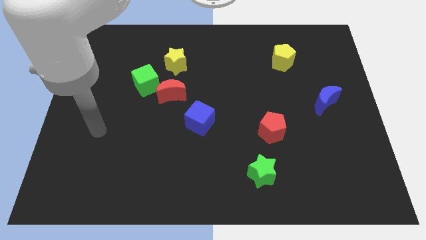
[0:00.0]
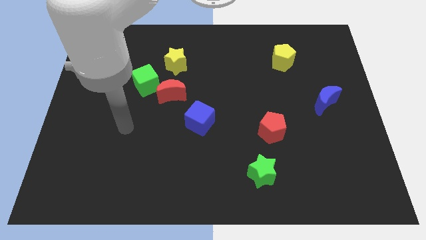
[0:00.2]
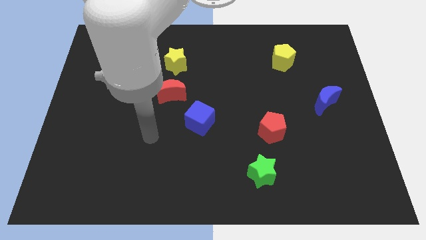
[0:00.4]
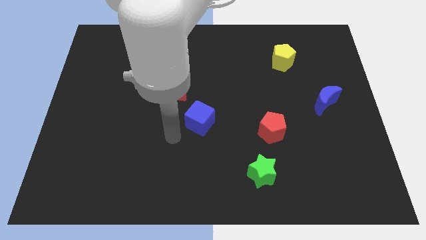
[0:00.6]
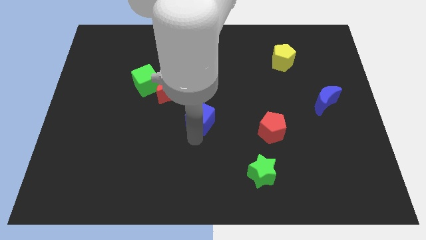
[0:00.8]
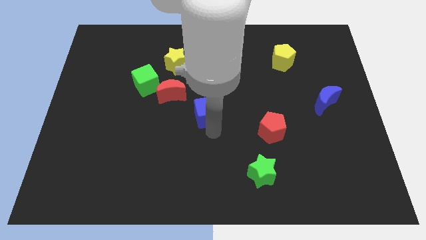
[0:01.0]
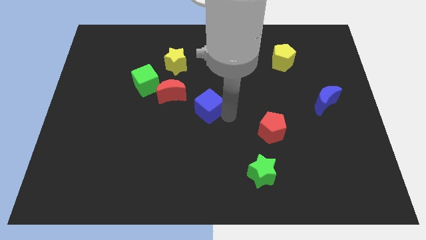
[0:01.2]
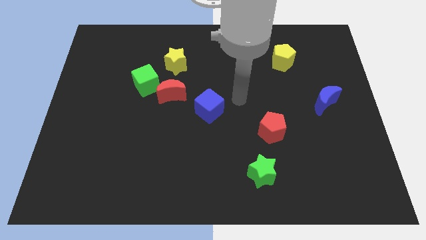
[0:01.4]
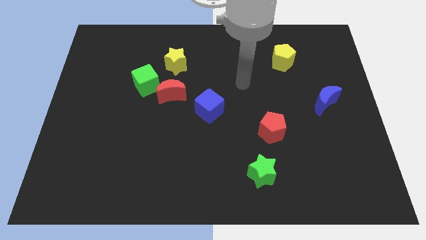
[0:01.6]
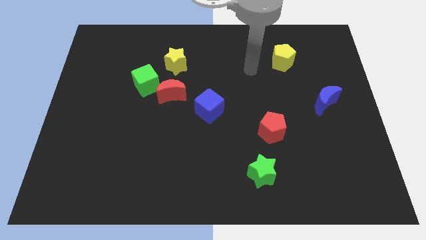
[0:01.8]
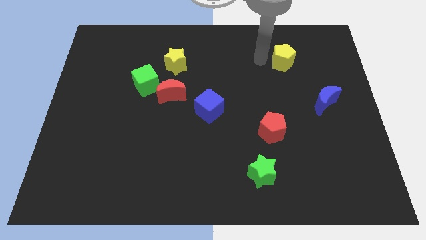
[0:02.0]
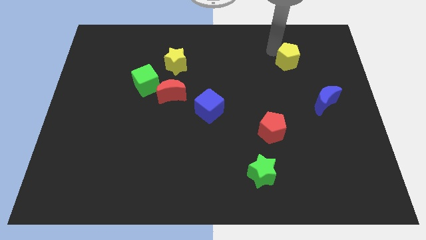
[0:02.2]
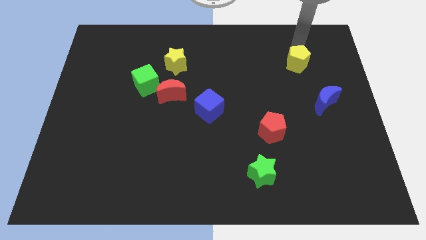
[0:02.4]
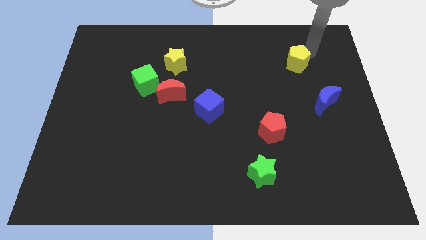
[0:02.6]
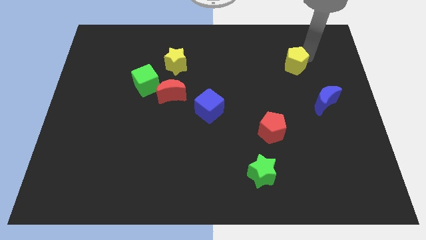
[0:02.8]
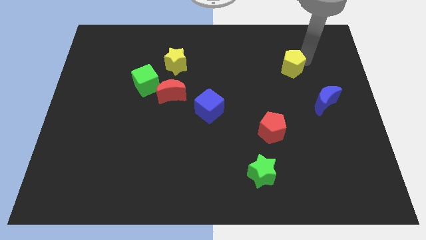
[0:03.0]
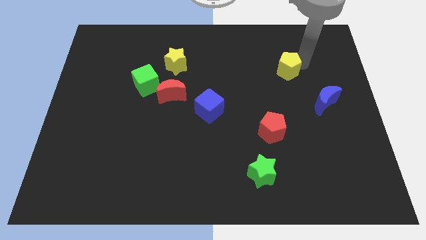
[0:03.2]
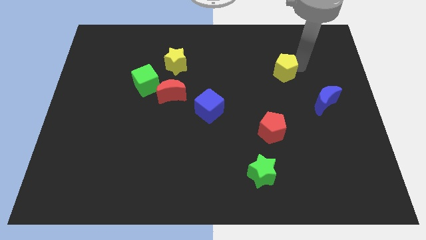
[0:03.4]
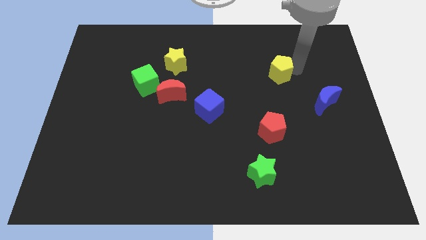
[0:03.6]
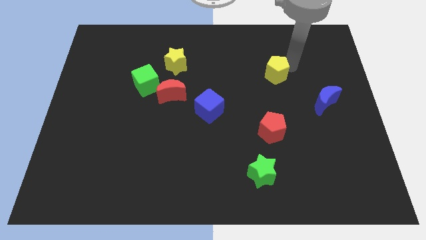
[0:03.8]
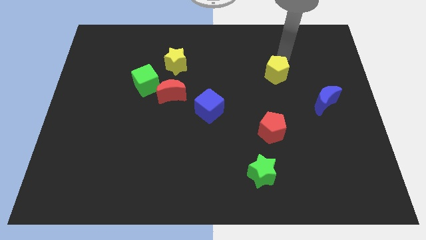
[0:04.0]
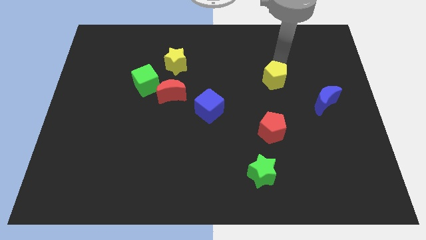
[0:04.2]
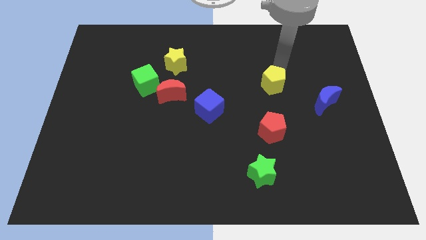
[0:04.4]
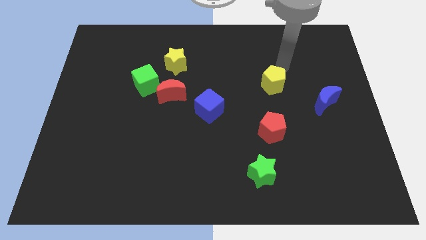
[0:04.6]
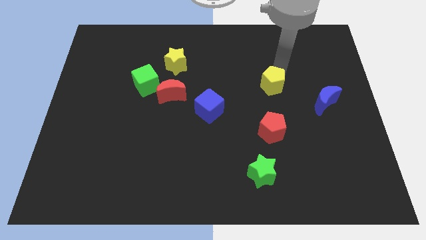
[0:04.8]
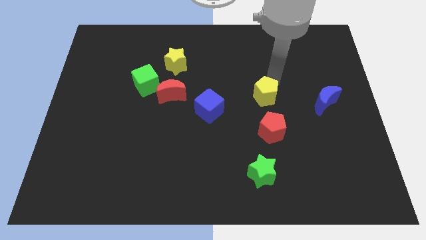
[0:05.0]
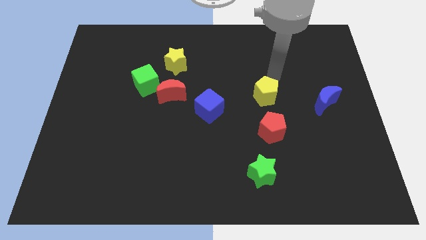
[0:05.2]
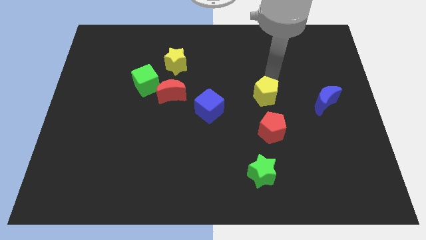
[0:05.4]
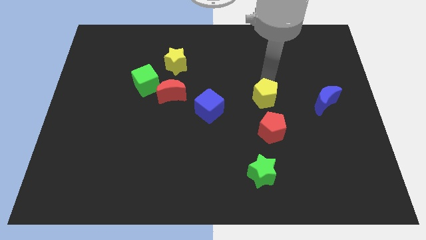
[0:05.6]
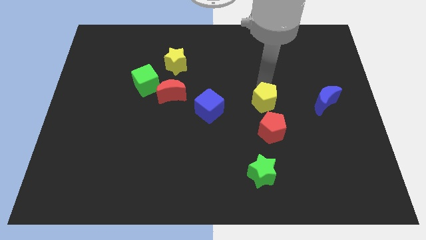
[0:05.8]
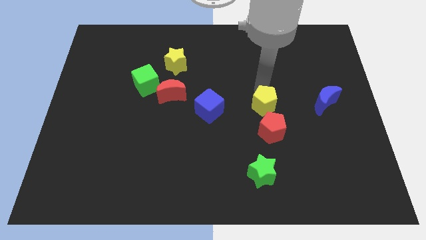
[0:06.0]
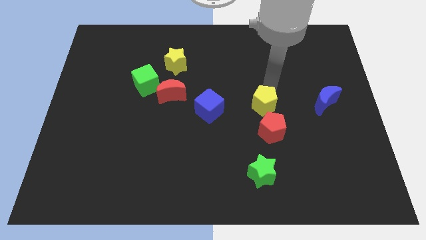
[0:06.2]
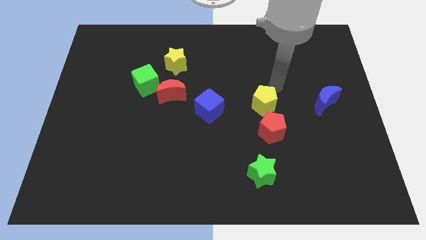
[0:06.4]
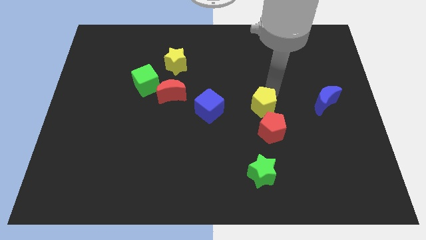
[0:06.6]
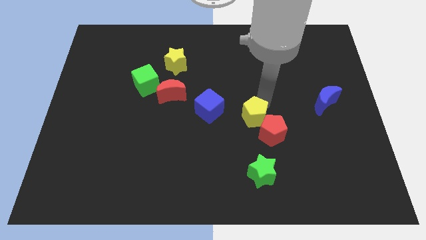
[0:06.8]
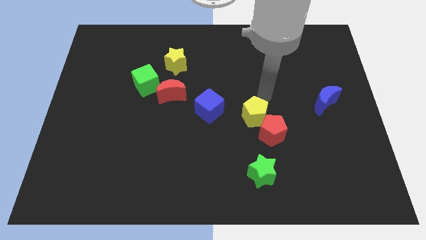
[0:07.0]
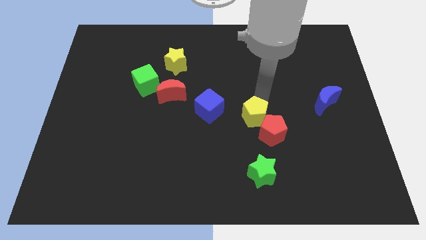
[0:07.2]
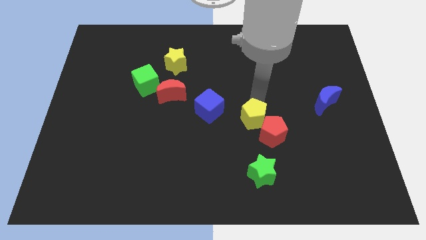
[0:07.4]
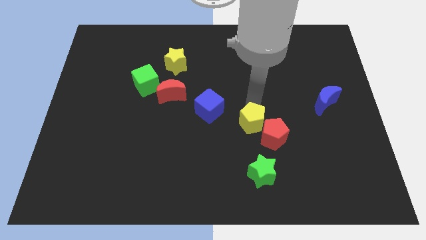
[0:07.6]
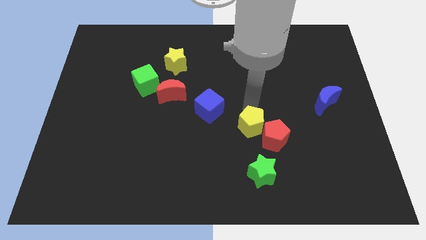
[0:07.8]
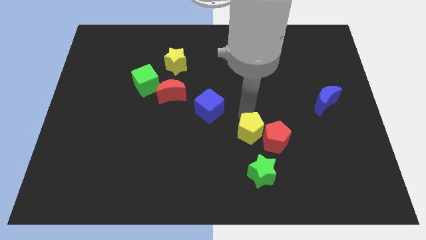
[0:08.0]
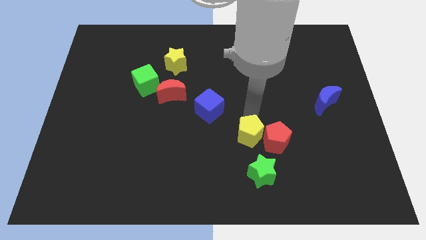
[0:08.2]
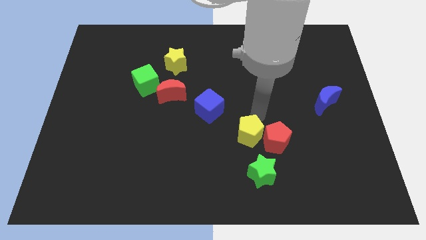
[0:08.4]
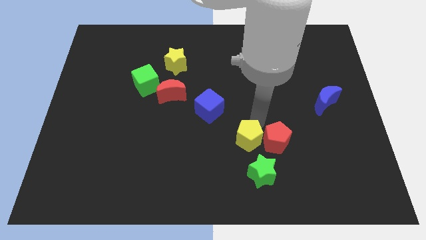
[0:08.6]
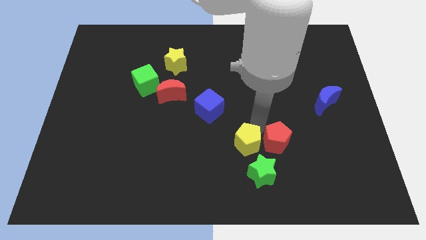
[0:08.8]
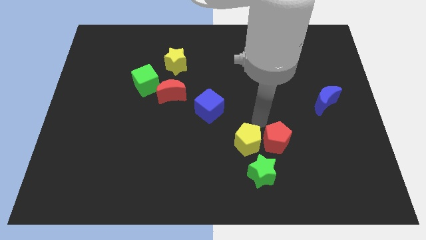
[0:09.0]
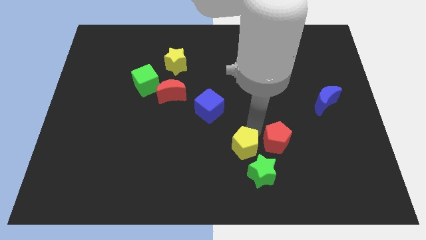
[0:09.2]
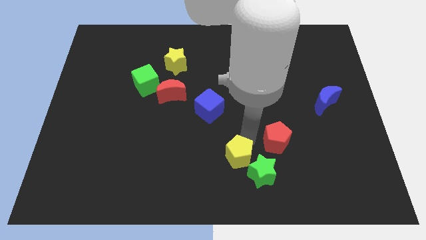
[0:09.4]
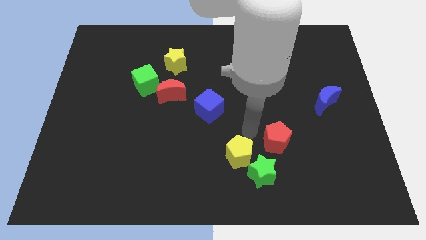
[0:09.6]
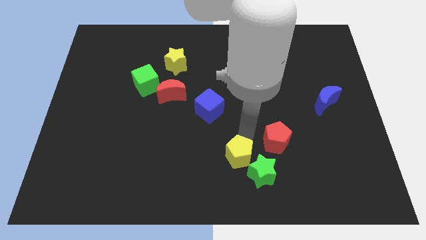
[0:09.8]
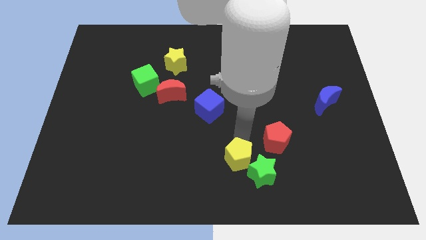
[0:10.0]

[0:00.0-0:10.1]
push the yellow pentagon to the bottom side

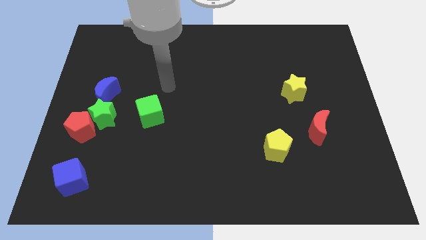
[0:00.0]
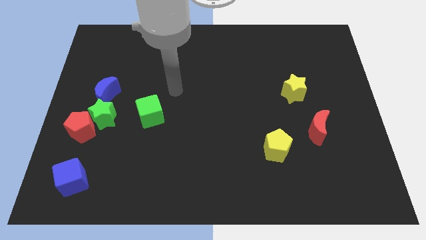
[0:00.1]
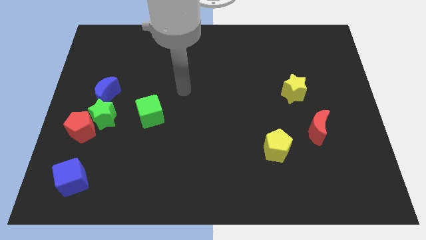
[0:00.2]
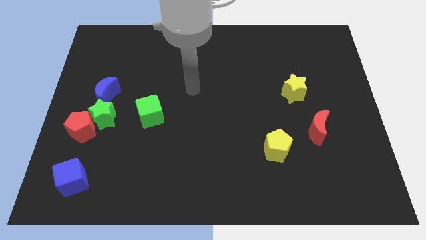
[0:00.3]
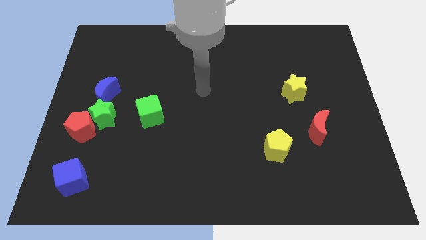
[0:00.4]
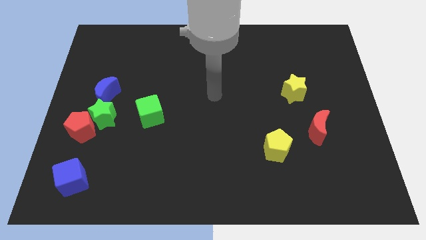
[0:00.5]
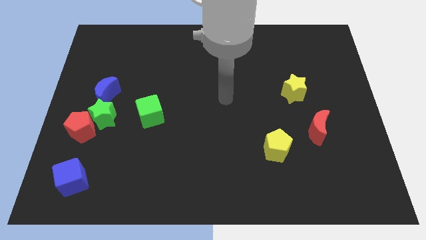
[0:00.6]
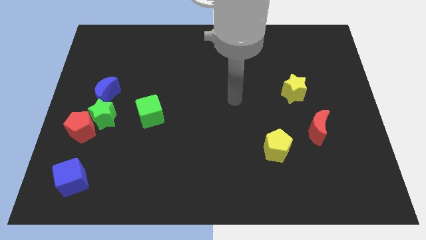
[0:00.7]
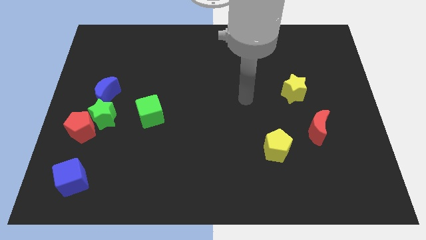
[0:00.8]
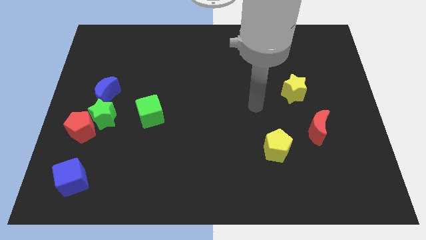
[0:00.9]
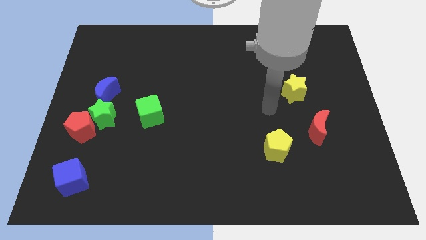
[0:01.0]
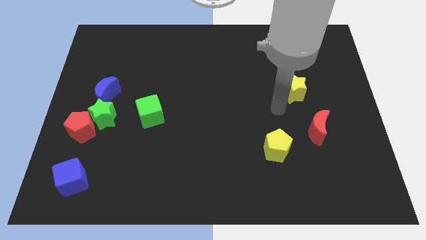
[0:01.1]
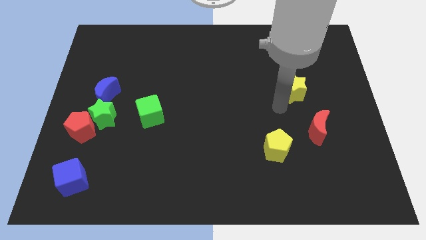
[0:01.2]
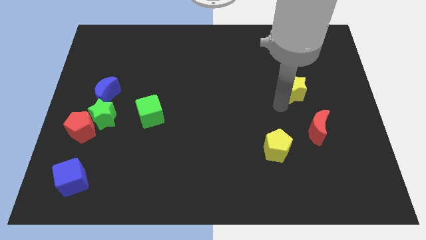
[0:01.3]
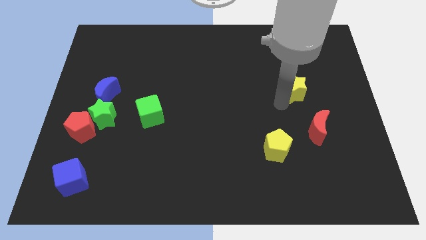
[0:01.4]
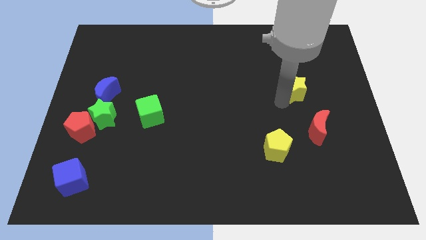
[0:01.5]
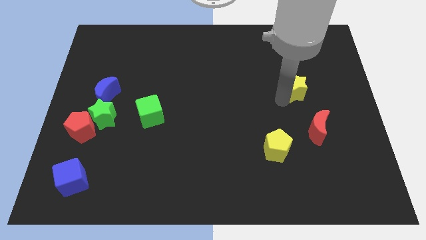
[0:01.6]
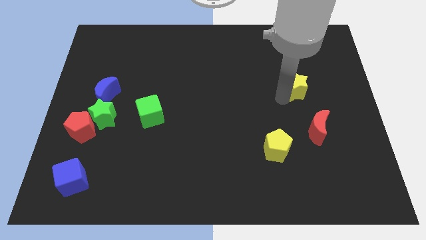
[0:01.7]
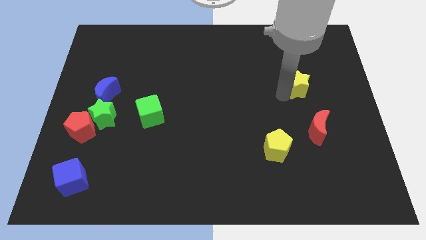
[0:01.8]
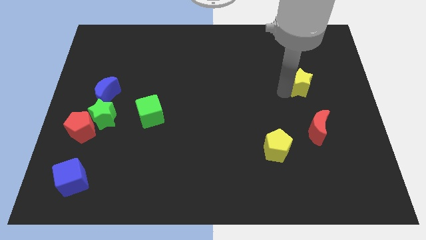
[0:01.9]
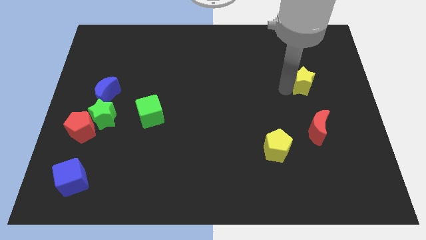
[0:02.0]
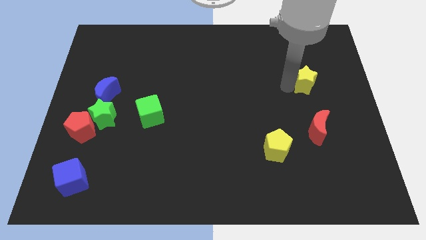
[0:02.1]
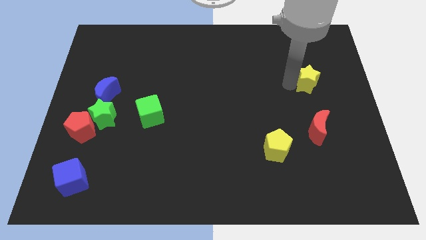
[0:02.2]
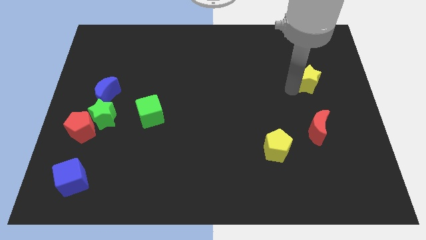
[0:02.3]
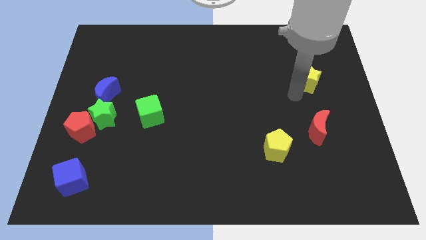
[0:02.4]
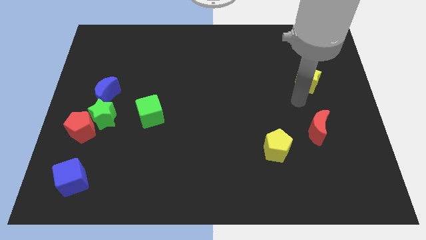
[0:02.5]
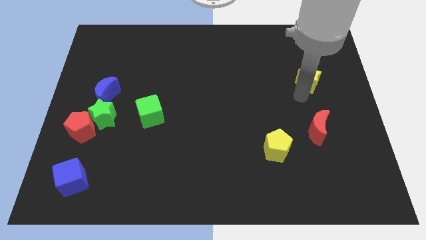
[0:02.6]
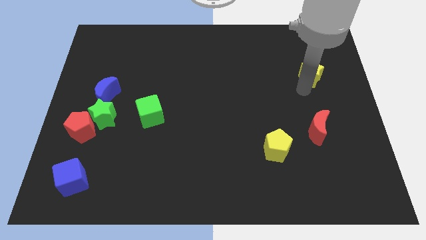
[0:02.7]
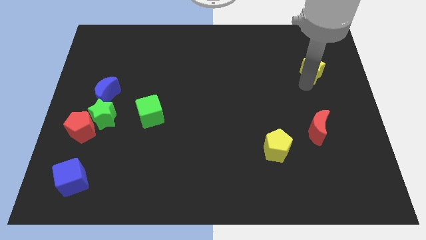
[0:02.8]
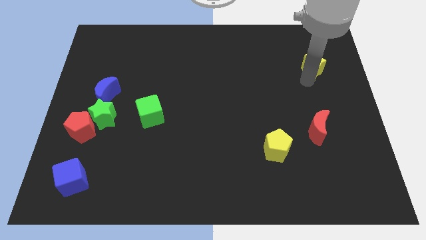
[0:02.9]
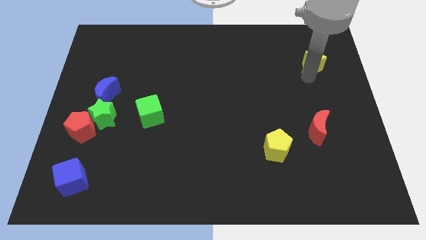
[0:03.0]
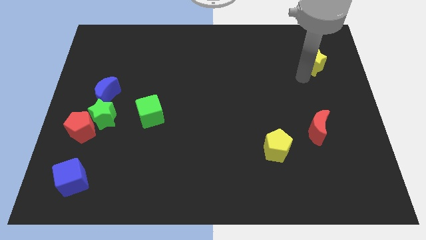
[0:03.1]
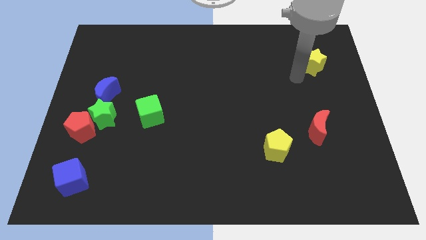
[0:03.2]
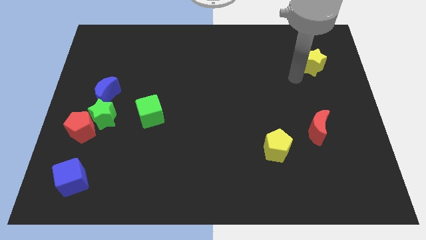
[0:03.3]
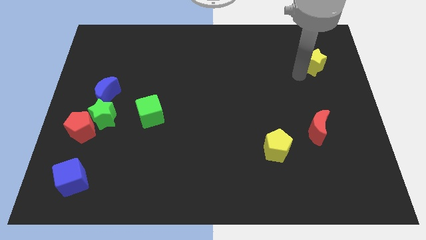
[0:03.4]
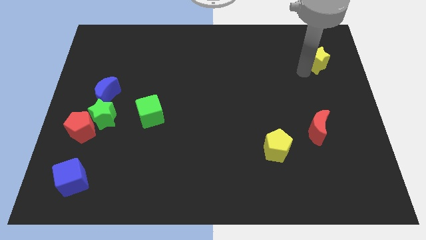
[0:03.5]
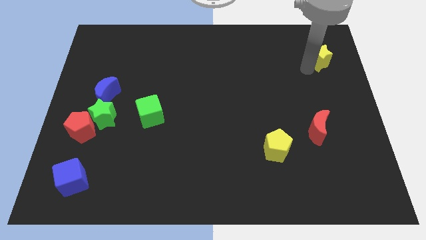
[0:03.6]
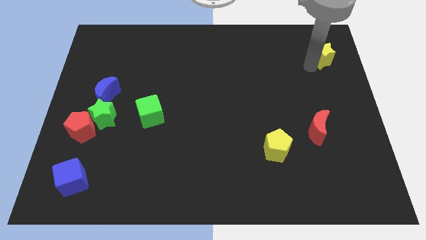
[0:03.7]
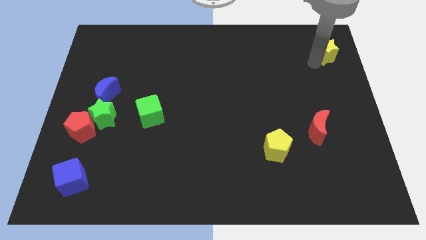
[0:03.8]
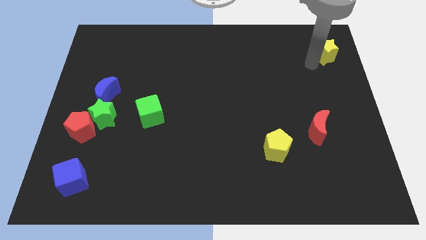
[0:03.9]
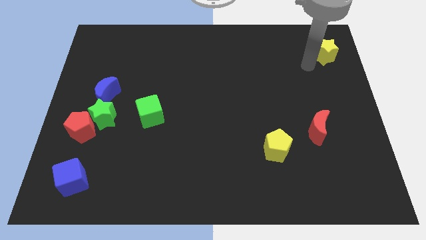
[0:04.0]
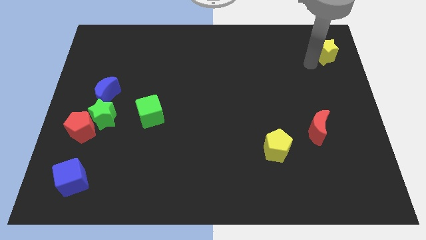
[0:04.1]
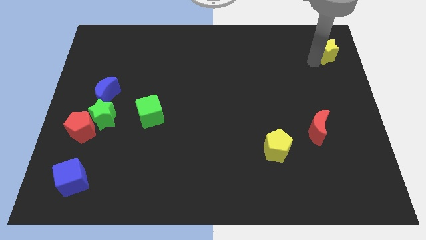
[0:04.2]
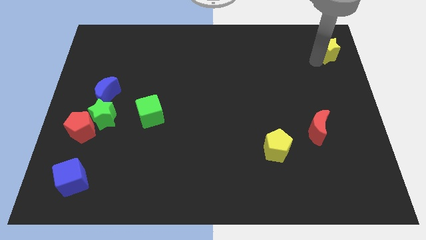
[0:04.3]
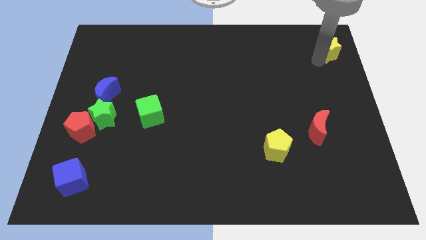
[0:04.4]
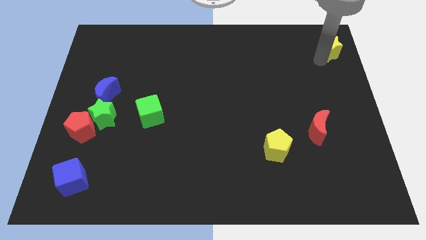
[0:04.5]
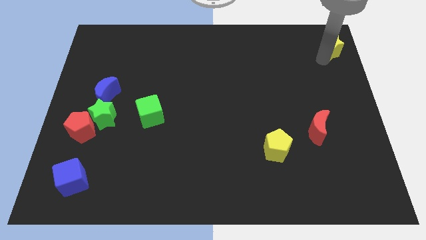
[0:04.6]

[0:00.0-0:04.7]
move the yellow star to the top right corner
